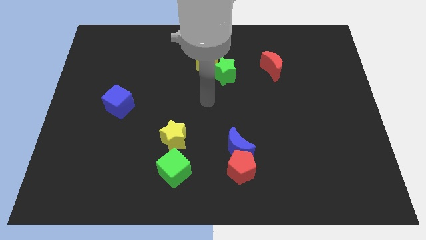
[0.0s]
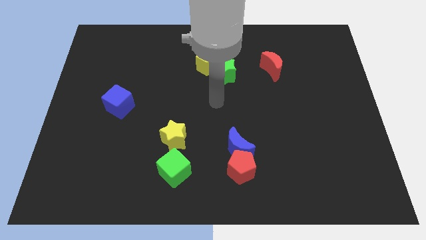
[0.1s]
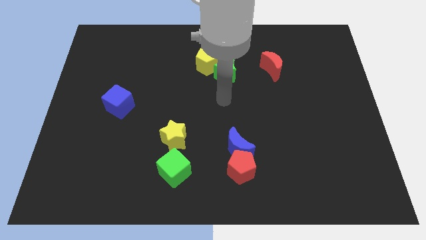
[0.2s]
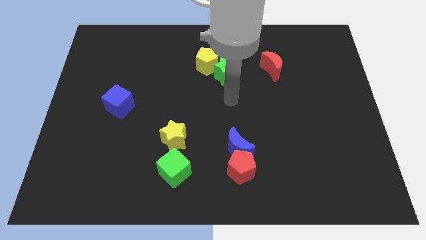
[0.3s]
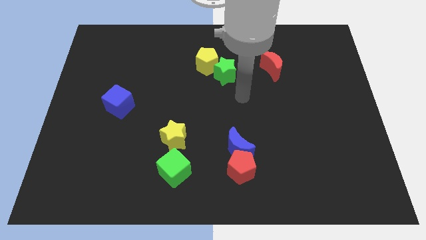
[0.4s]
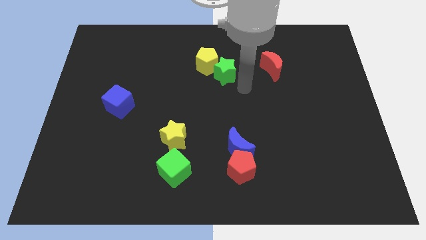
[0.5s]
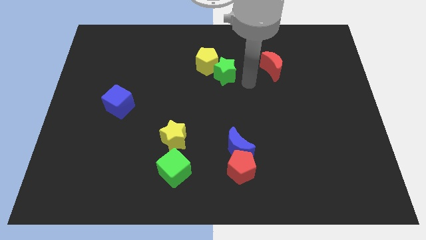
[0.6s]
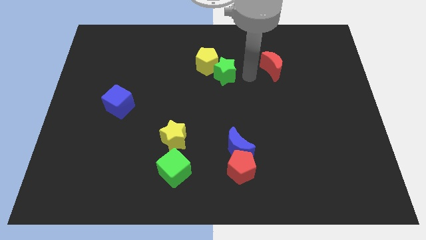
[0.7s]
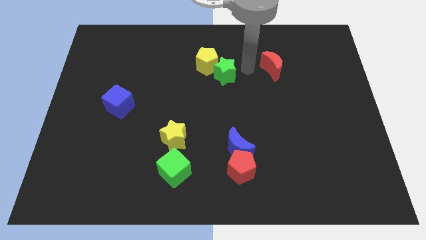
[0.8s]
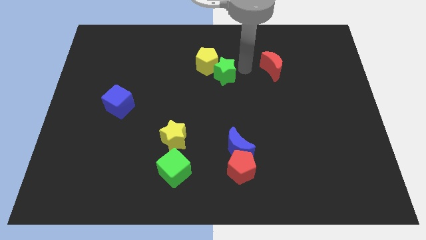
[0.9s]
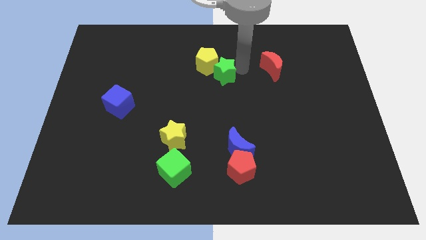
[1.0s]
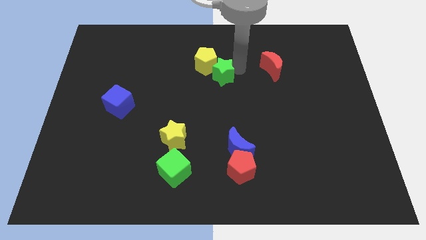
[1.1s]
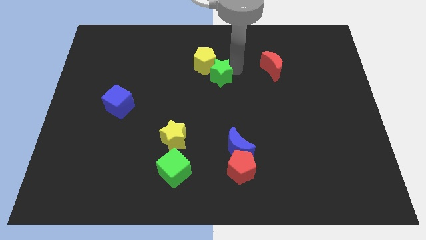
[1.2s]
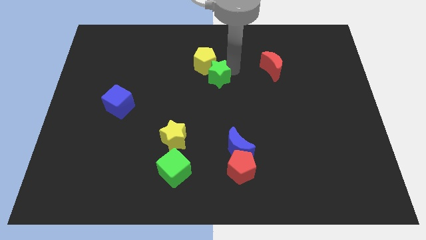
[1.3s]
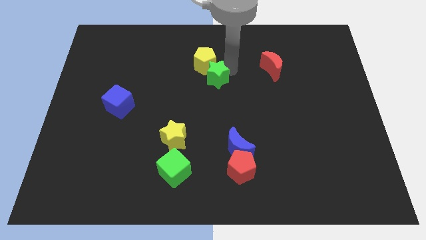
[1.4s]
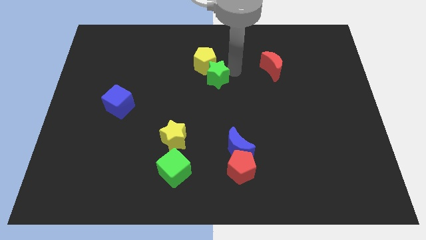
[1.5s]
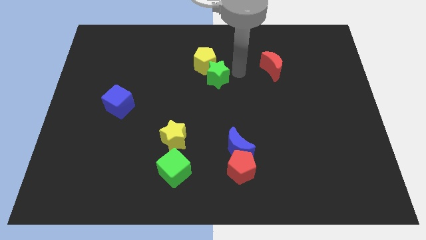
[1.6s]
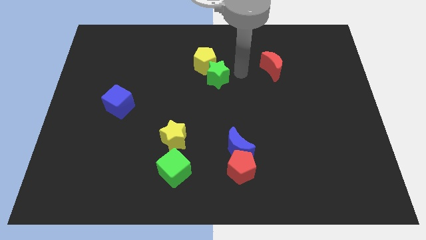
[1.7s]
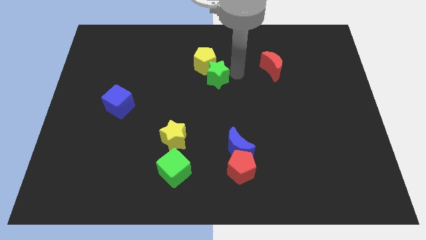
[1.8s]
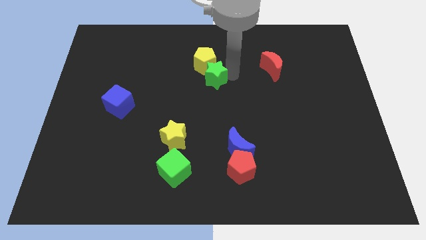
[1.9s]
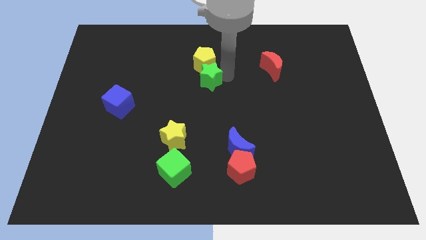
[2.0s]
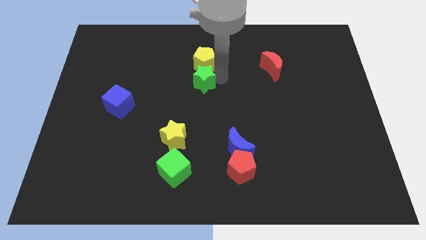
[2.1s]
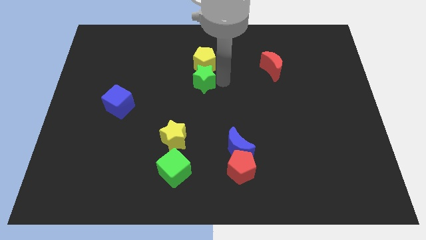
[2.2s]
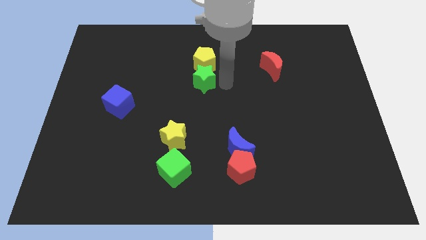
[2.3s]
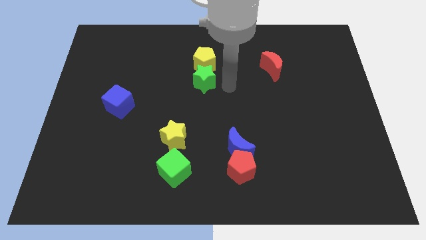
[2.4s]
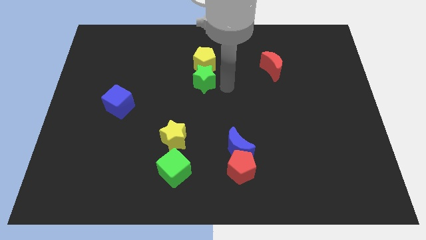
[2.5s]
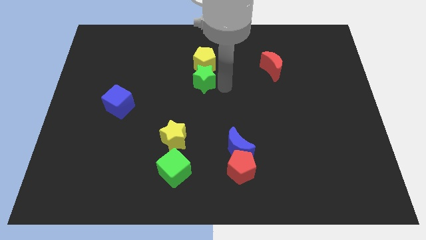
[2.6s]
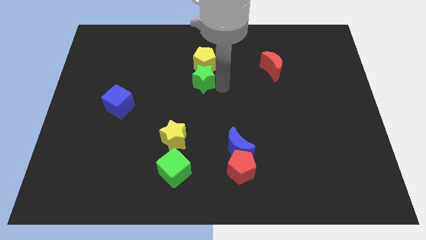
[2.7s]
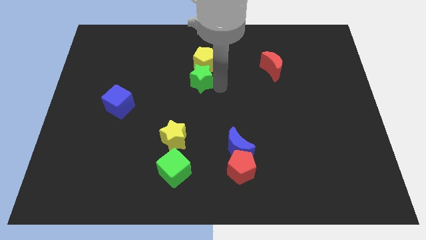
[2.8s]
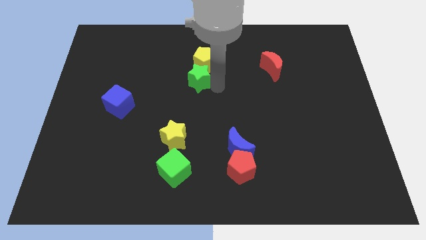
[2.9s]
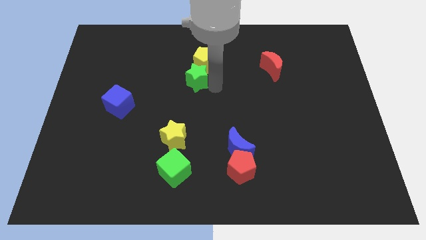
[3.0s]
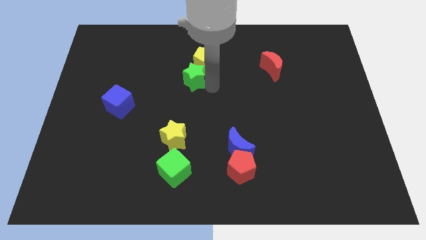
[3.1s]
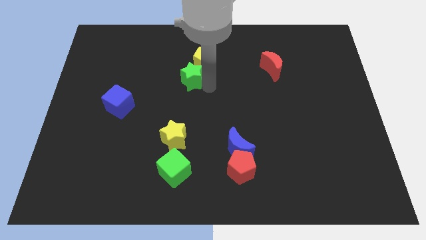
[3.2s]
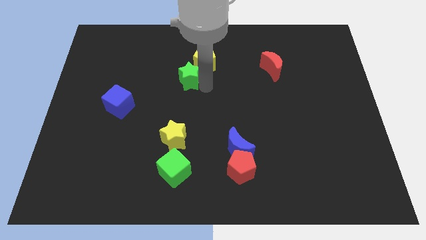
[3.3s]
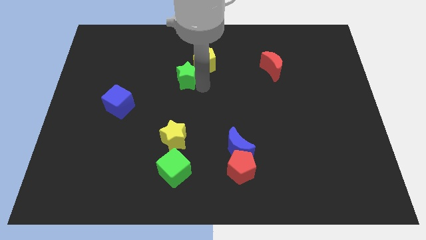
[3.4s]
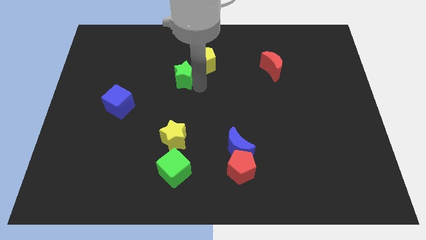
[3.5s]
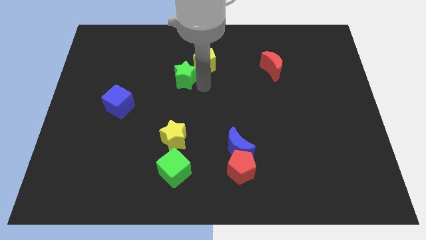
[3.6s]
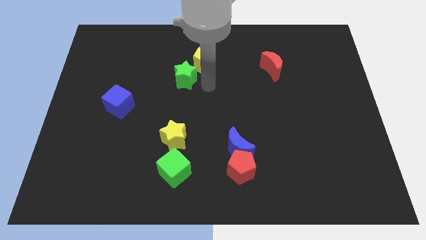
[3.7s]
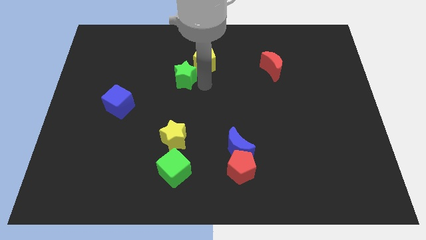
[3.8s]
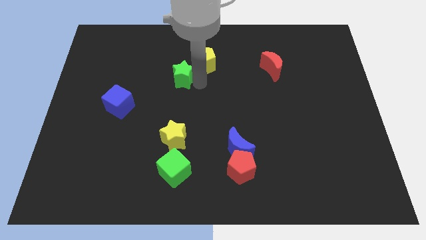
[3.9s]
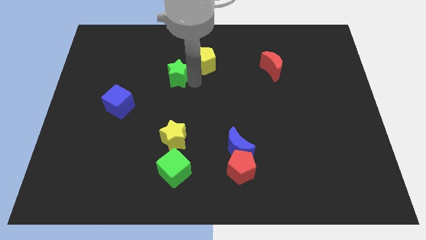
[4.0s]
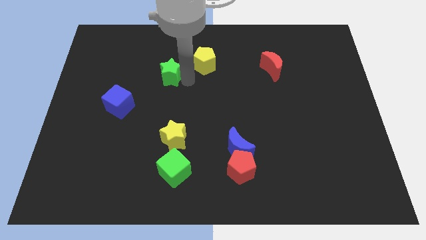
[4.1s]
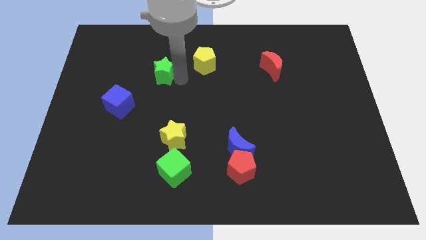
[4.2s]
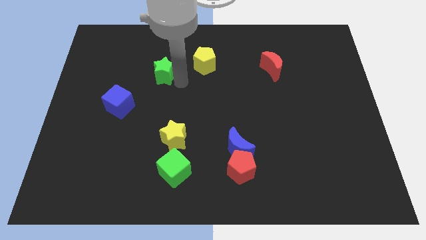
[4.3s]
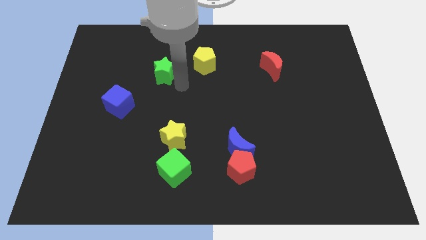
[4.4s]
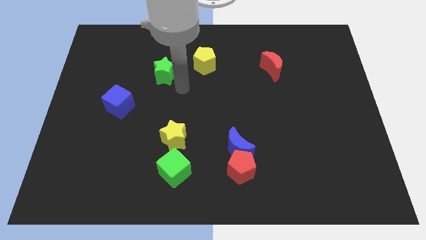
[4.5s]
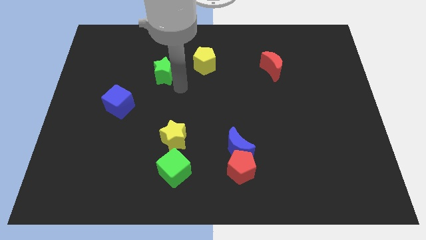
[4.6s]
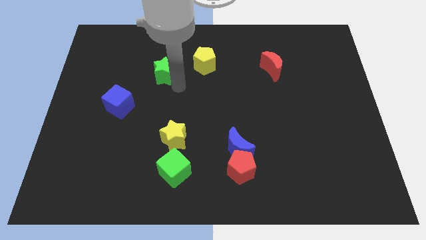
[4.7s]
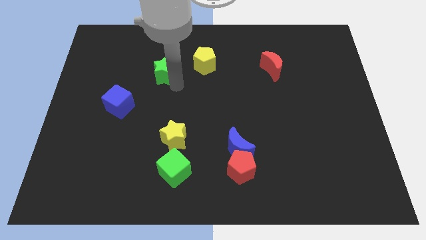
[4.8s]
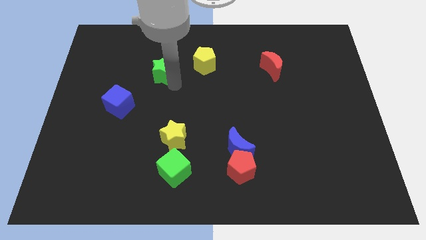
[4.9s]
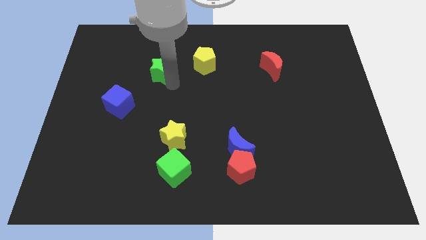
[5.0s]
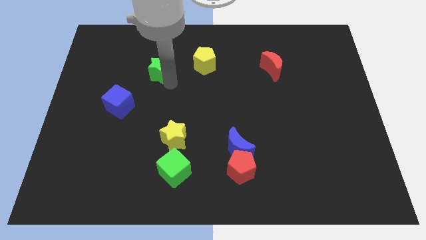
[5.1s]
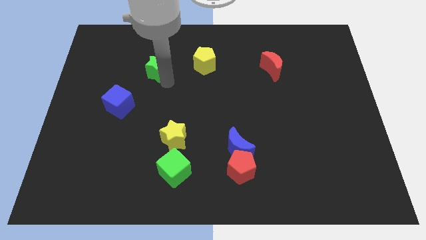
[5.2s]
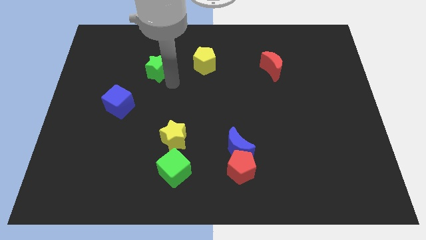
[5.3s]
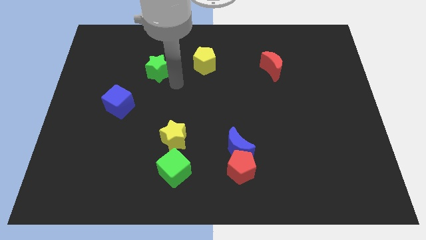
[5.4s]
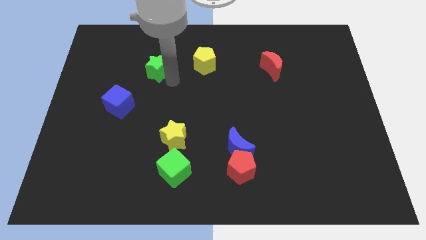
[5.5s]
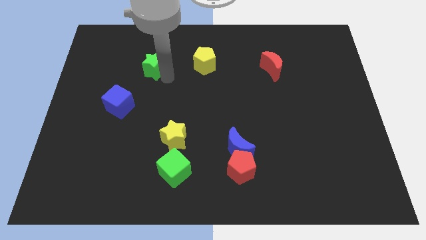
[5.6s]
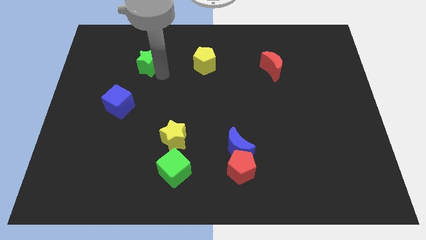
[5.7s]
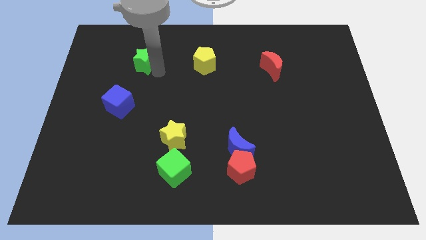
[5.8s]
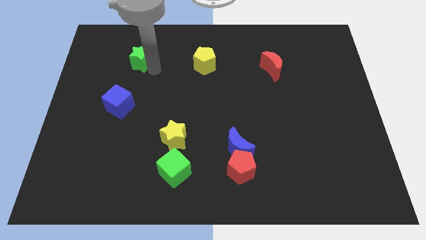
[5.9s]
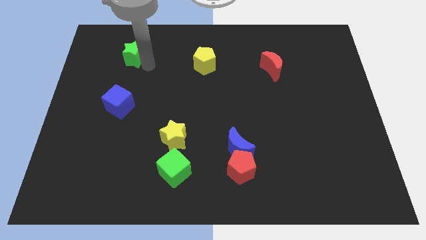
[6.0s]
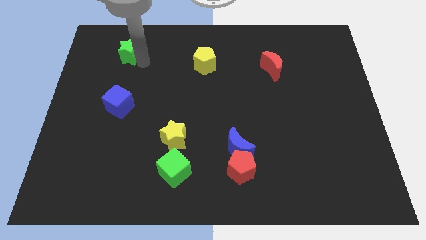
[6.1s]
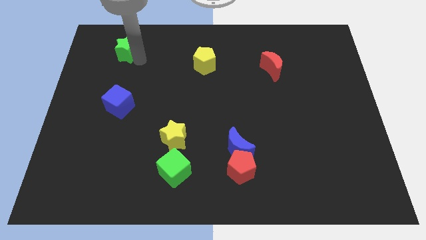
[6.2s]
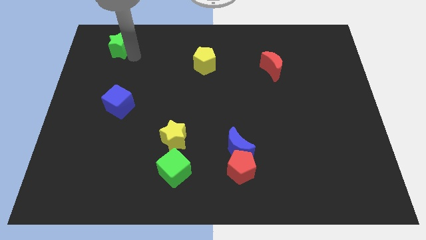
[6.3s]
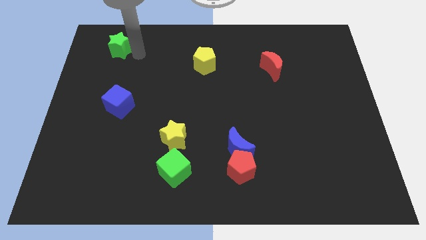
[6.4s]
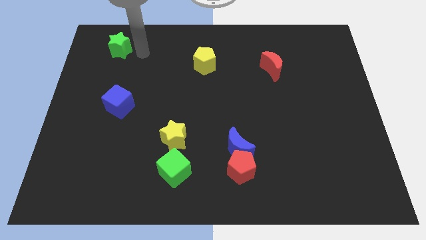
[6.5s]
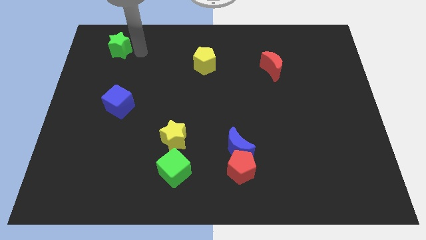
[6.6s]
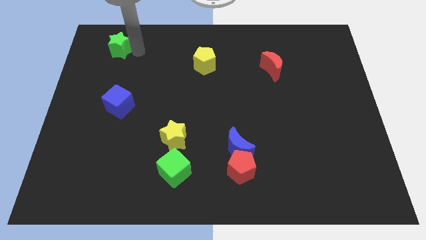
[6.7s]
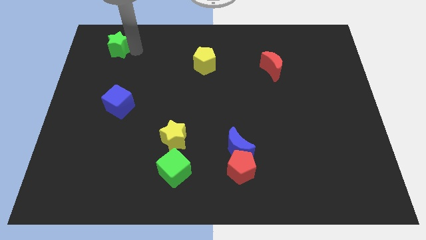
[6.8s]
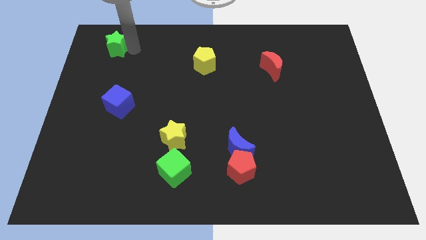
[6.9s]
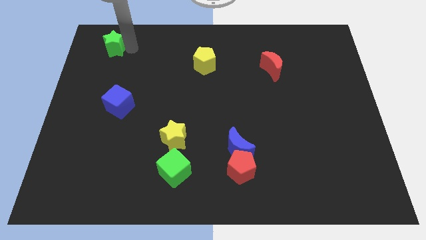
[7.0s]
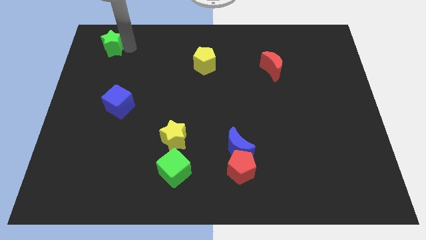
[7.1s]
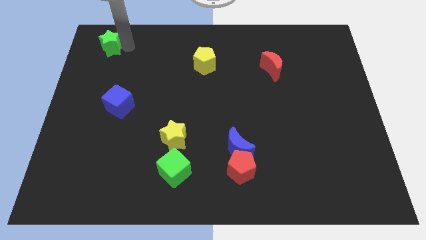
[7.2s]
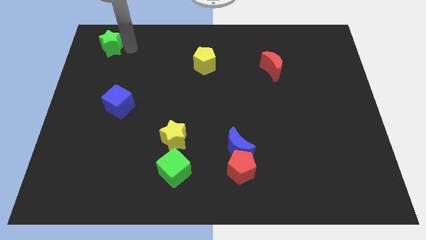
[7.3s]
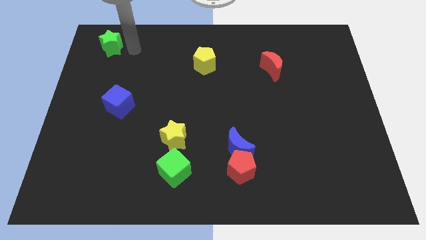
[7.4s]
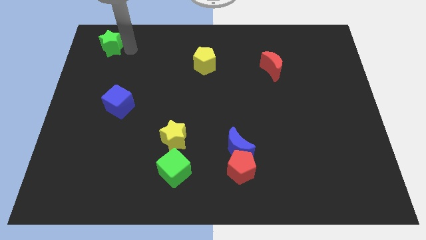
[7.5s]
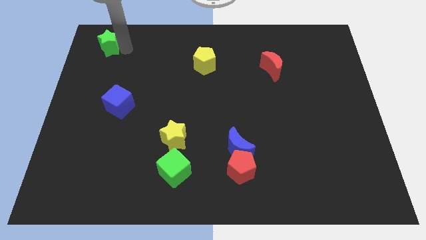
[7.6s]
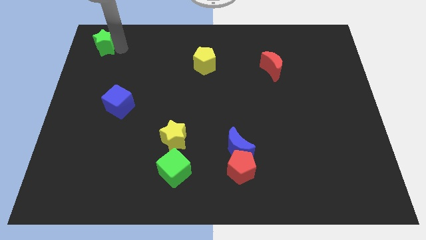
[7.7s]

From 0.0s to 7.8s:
put the green star to the upper left corner
